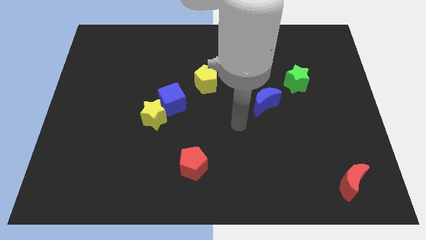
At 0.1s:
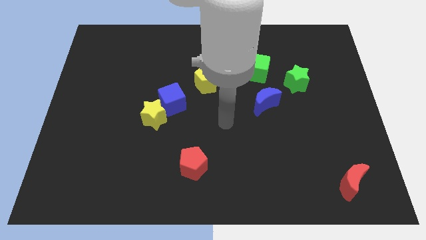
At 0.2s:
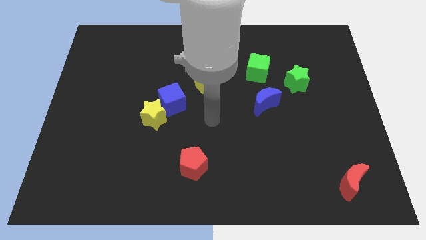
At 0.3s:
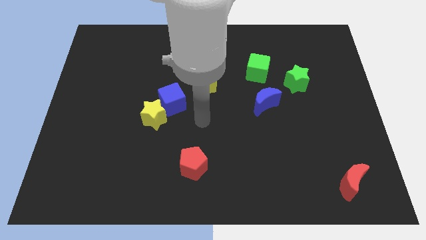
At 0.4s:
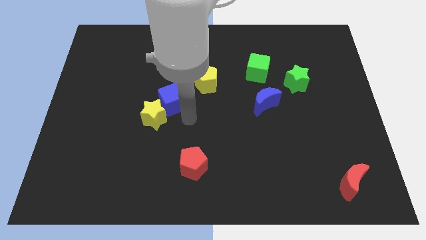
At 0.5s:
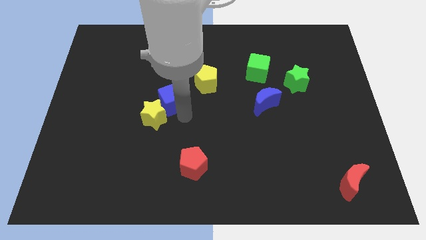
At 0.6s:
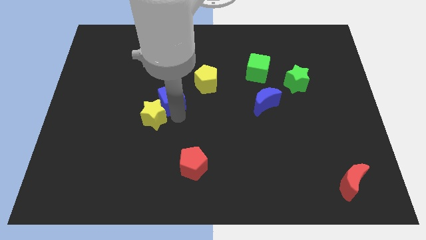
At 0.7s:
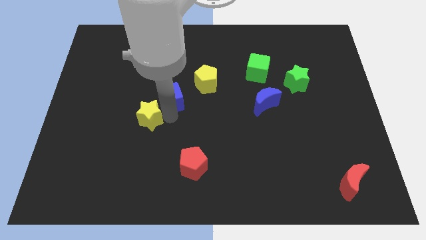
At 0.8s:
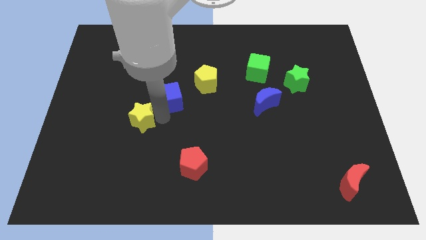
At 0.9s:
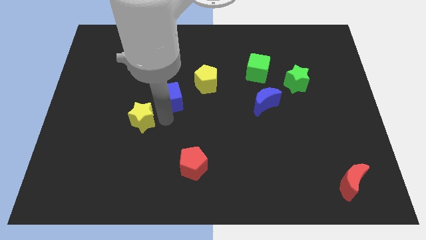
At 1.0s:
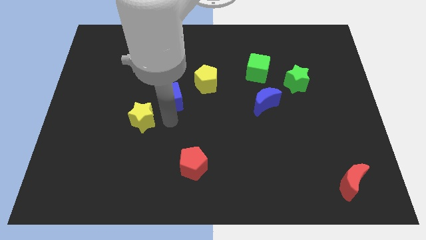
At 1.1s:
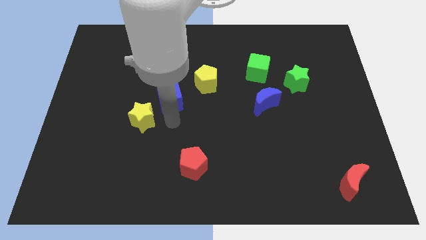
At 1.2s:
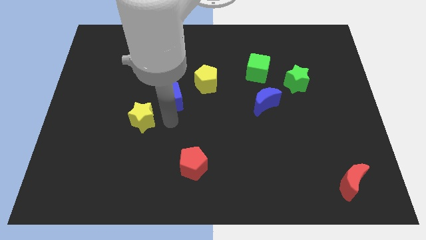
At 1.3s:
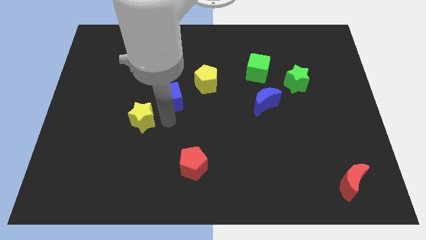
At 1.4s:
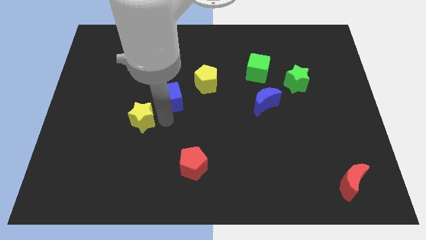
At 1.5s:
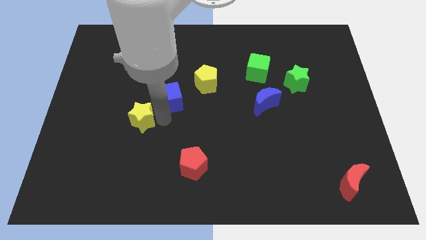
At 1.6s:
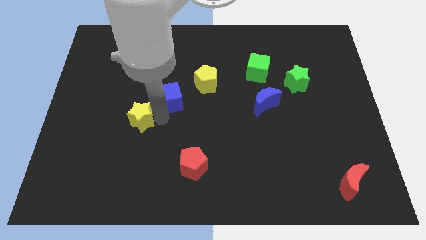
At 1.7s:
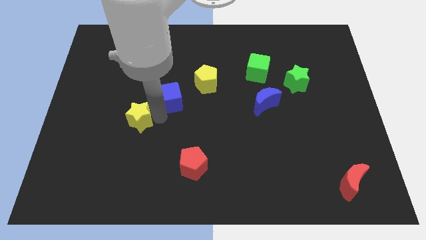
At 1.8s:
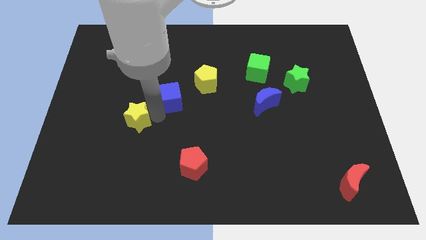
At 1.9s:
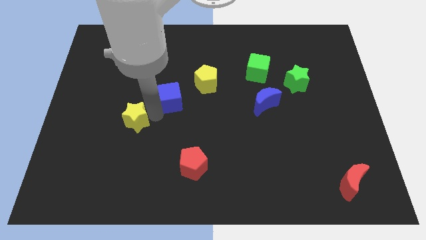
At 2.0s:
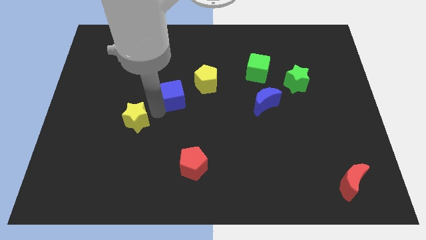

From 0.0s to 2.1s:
separate the yellow star from the blue cube

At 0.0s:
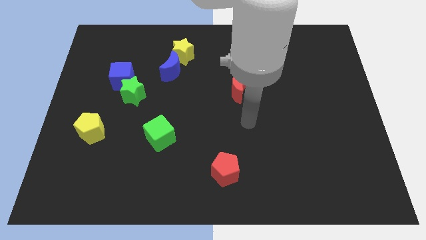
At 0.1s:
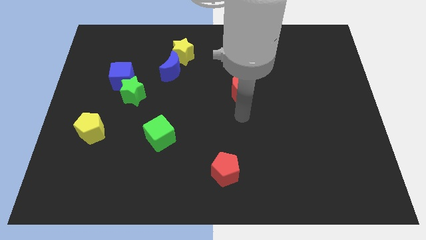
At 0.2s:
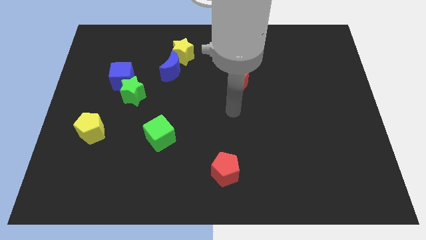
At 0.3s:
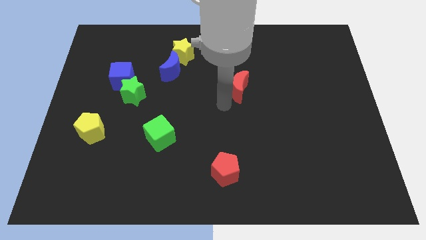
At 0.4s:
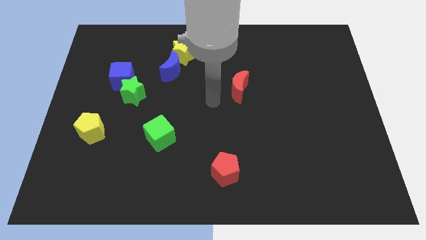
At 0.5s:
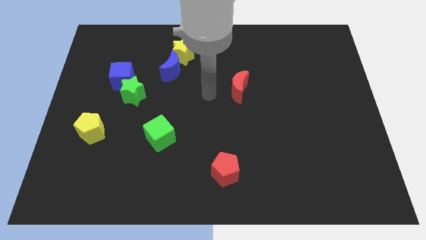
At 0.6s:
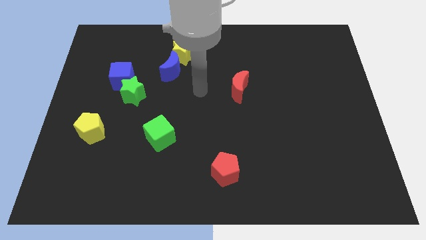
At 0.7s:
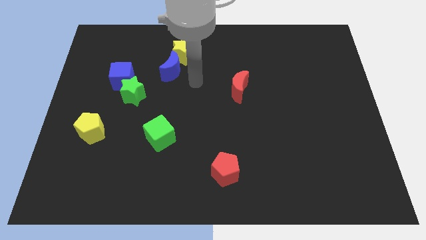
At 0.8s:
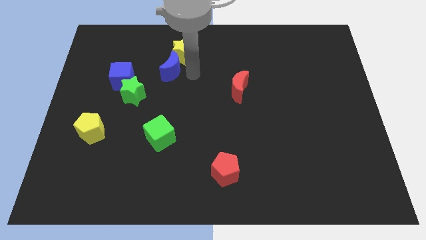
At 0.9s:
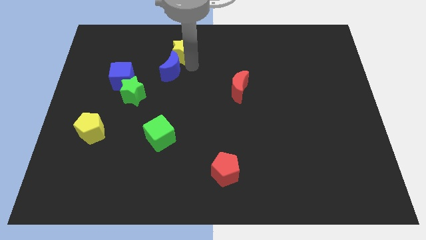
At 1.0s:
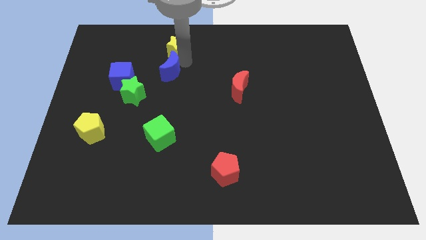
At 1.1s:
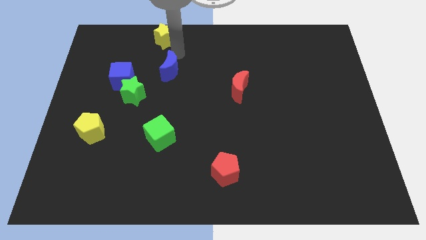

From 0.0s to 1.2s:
move the blue moon away from the yellow star

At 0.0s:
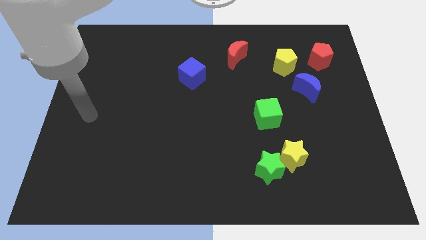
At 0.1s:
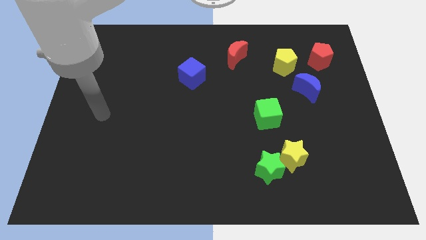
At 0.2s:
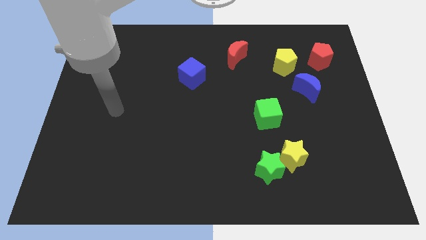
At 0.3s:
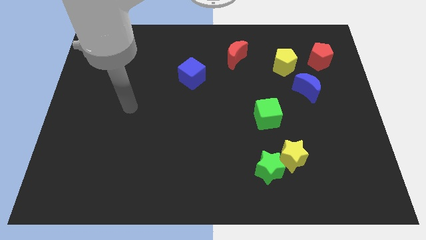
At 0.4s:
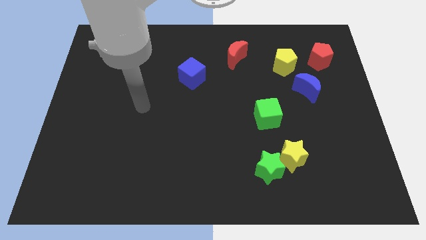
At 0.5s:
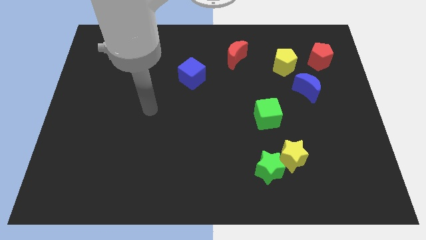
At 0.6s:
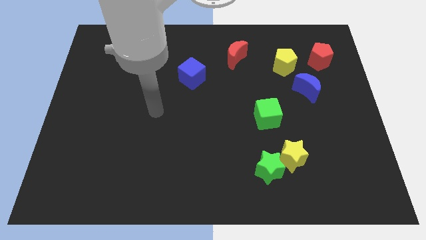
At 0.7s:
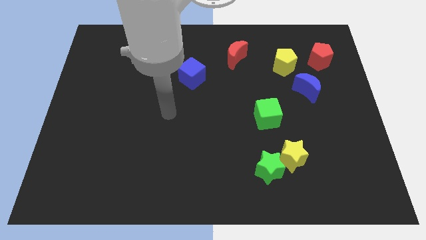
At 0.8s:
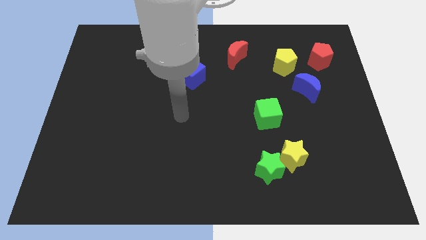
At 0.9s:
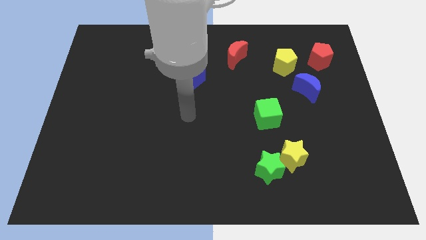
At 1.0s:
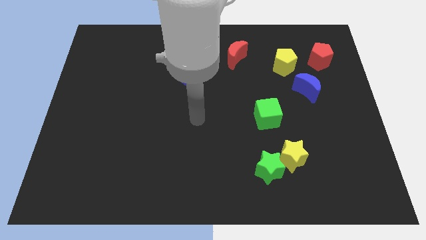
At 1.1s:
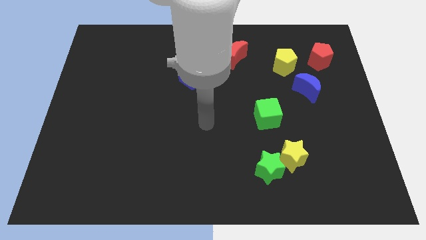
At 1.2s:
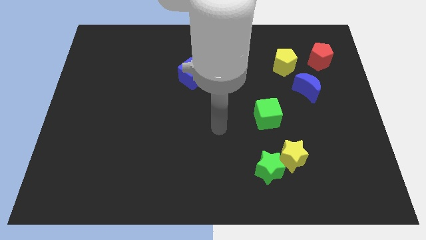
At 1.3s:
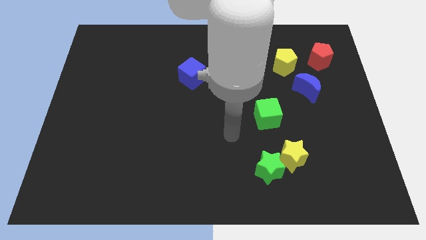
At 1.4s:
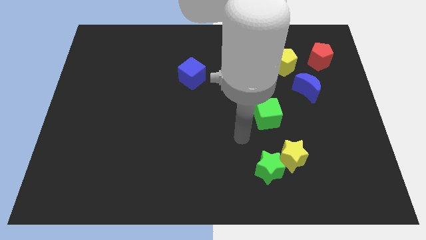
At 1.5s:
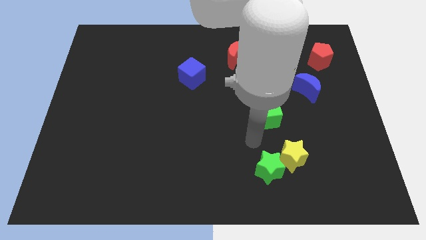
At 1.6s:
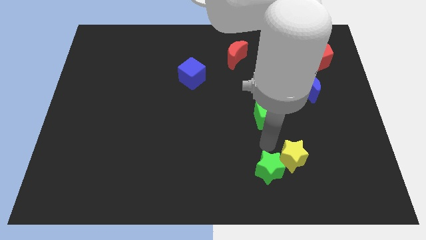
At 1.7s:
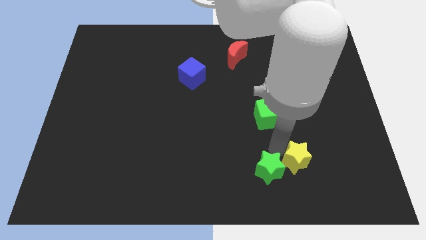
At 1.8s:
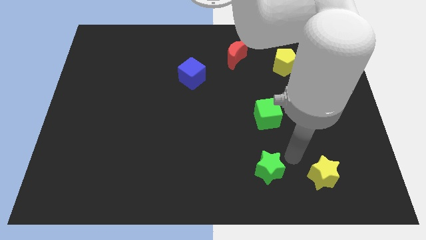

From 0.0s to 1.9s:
pull the green star apart from the yellow star

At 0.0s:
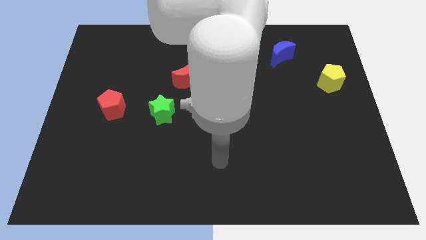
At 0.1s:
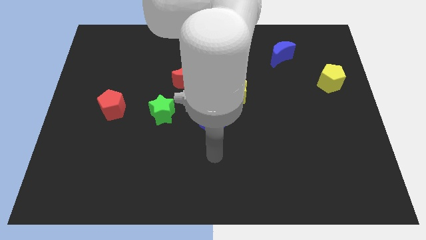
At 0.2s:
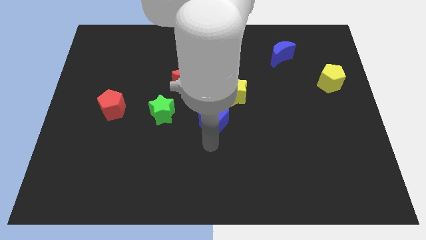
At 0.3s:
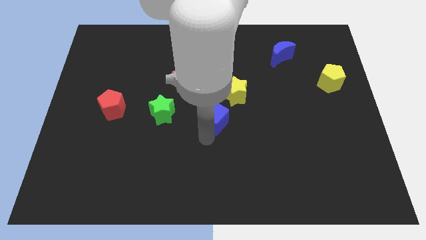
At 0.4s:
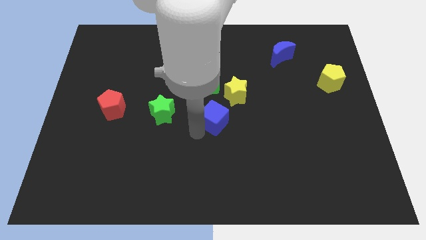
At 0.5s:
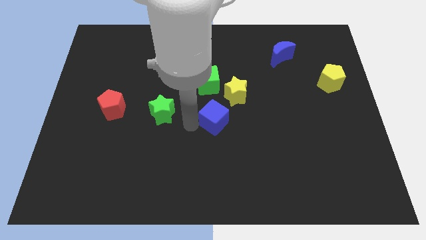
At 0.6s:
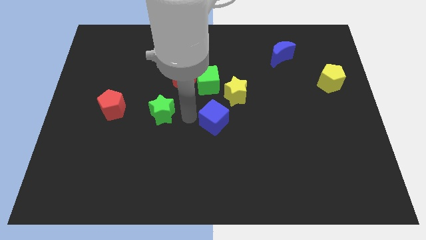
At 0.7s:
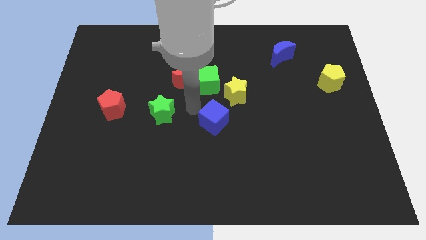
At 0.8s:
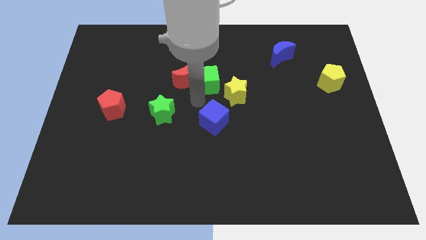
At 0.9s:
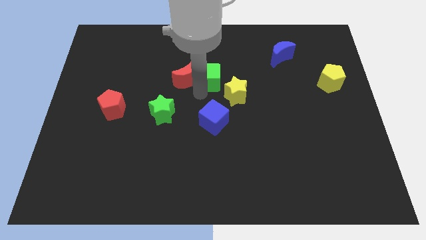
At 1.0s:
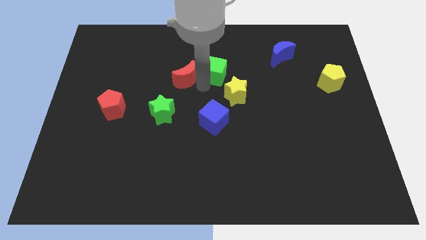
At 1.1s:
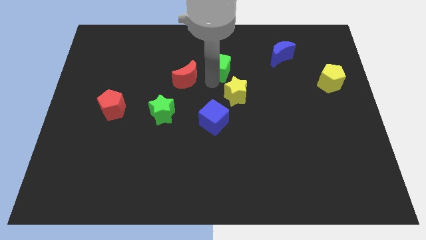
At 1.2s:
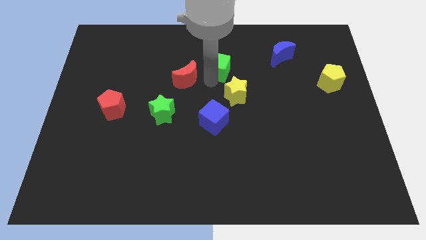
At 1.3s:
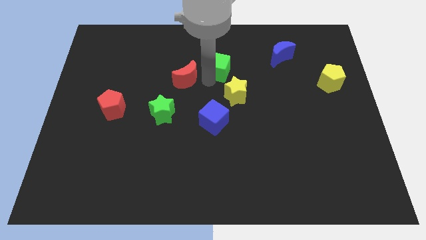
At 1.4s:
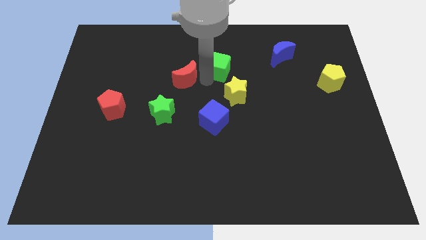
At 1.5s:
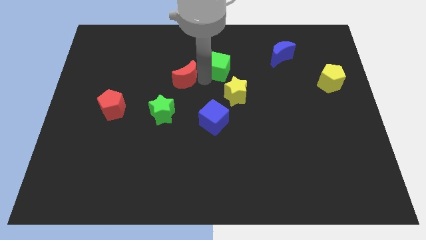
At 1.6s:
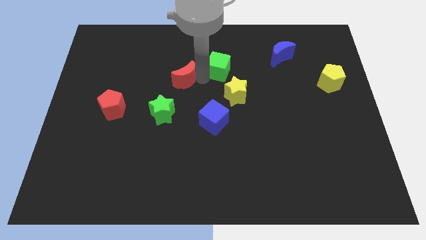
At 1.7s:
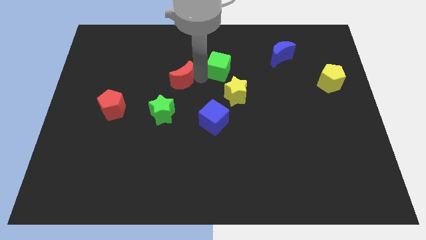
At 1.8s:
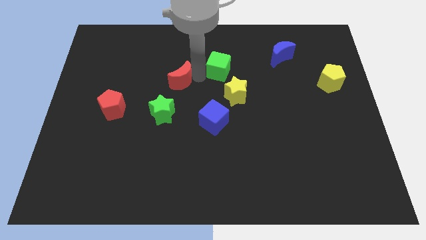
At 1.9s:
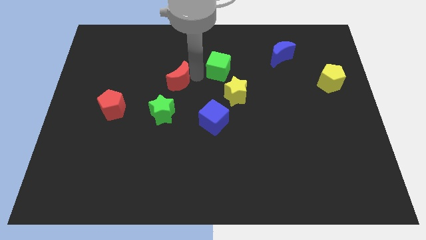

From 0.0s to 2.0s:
separate the red moon from the green cube

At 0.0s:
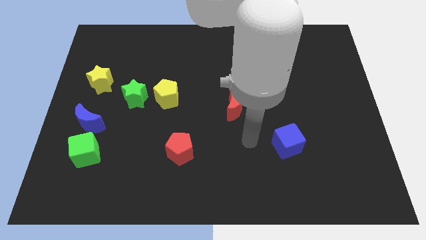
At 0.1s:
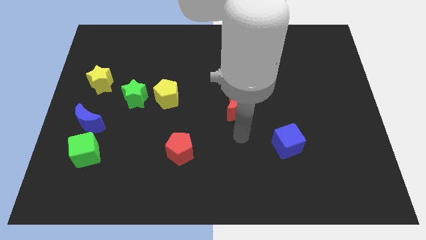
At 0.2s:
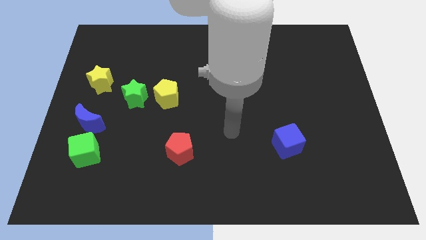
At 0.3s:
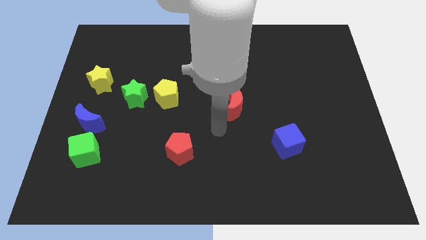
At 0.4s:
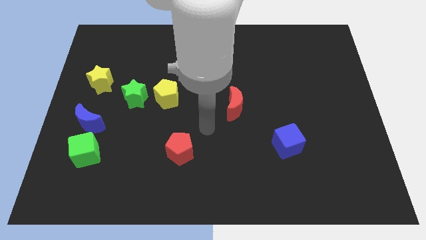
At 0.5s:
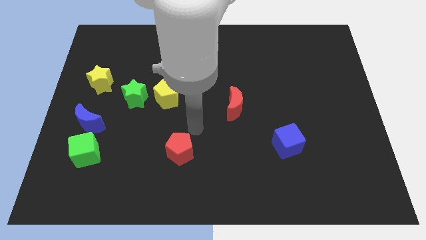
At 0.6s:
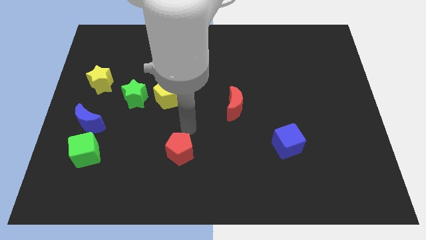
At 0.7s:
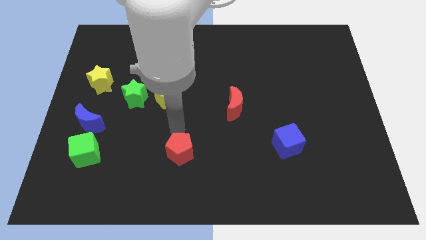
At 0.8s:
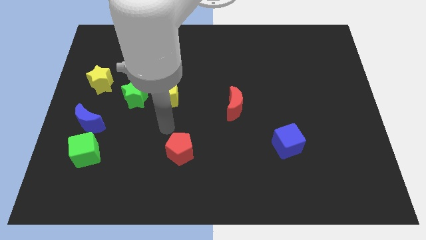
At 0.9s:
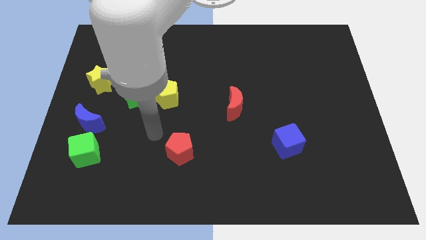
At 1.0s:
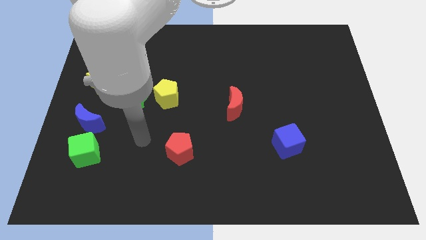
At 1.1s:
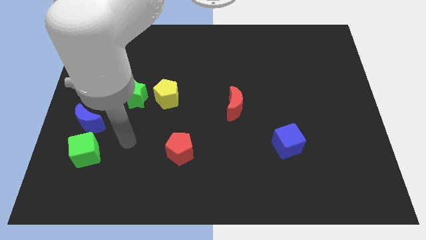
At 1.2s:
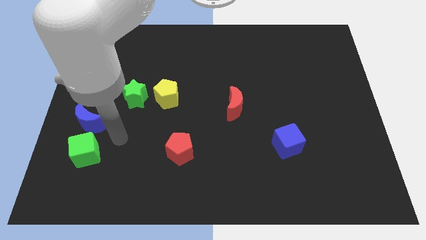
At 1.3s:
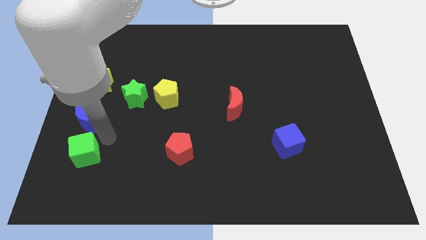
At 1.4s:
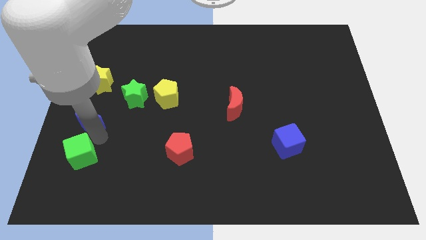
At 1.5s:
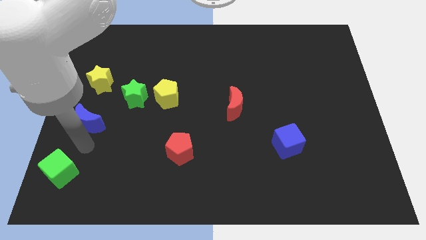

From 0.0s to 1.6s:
move the blue moon away from the green cube

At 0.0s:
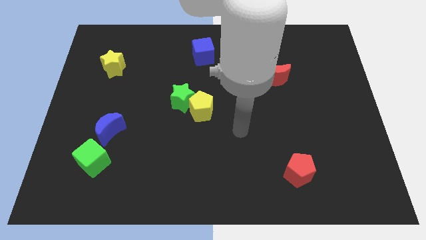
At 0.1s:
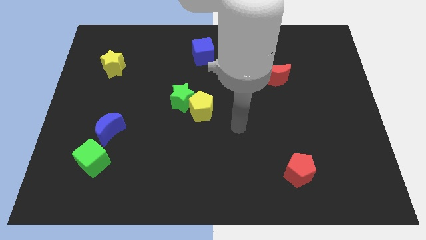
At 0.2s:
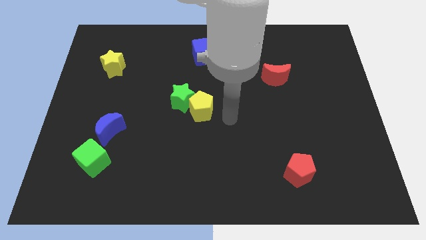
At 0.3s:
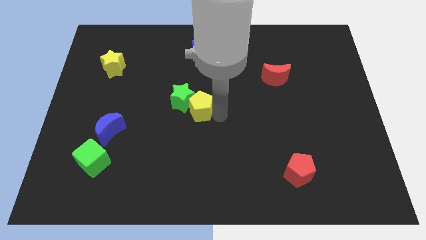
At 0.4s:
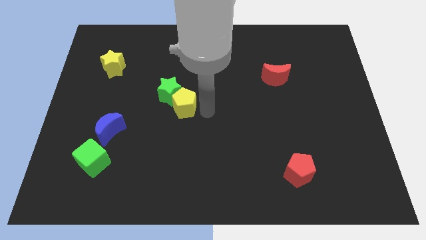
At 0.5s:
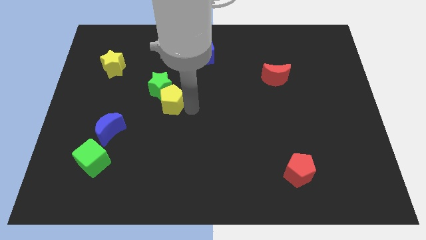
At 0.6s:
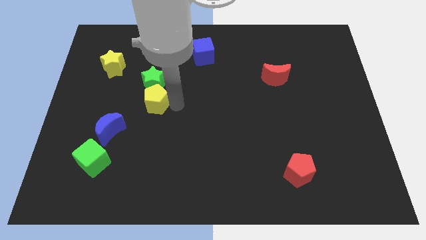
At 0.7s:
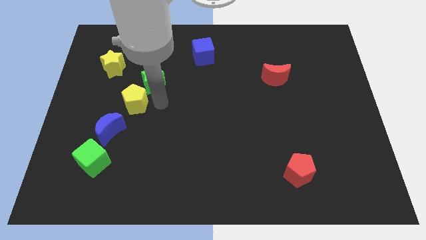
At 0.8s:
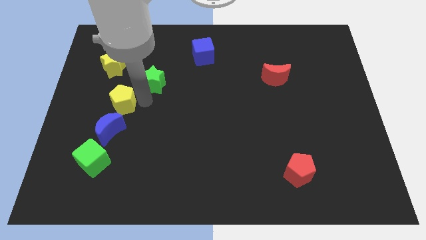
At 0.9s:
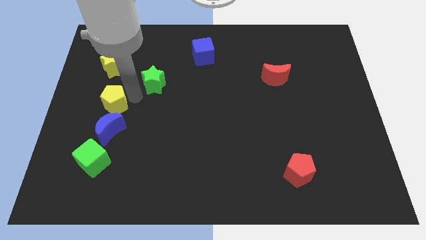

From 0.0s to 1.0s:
pull the green star apart from the yellow pentagon
